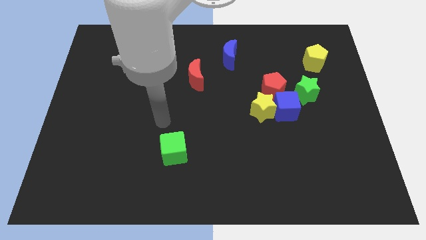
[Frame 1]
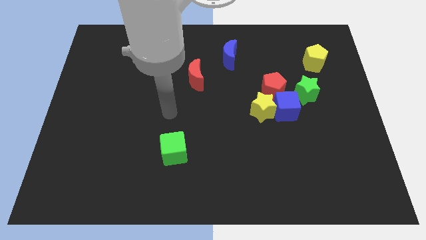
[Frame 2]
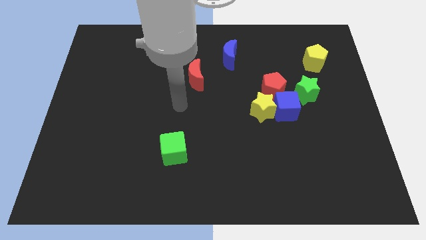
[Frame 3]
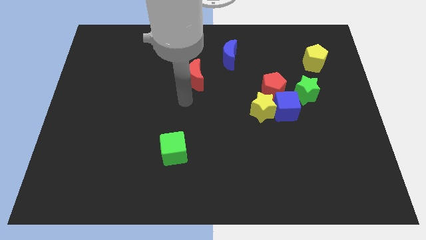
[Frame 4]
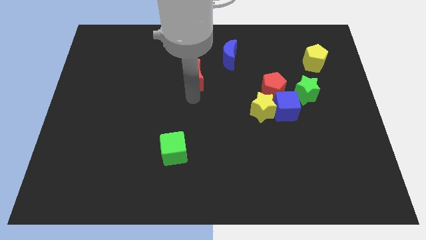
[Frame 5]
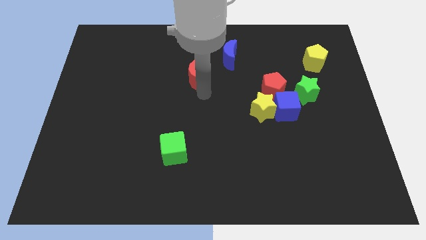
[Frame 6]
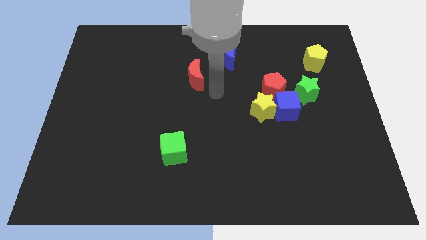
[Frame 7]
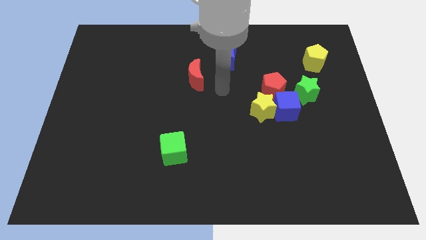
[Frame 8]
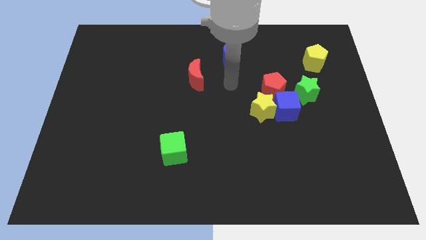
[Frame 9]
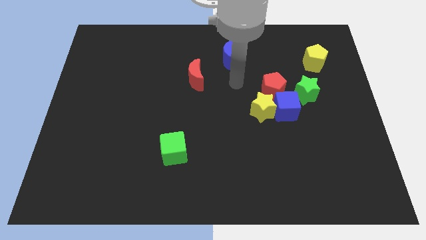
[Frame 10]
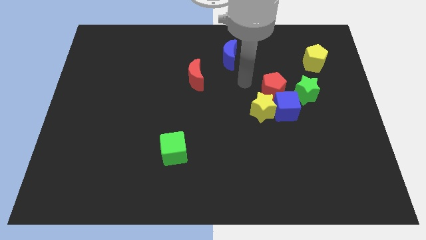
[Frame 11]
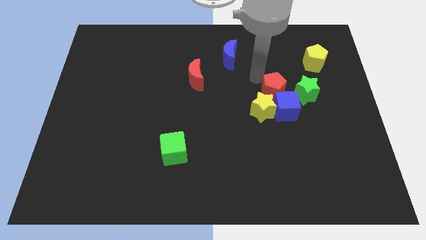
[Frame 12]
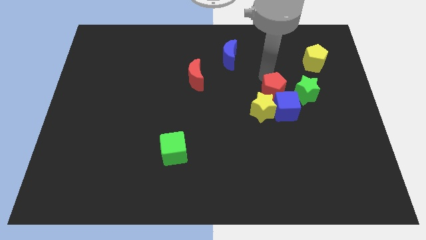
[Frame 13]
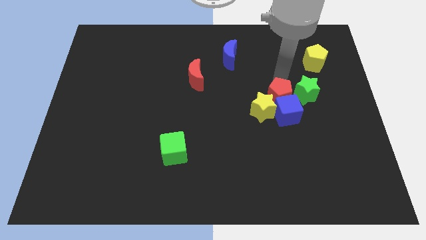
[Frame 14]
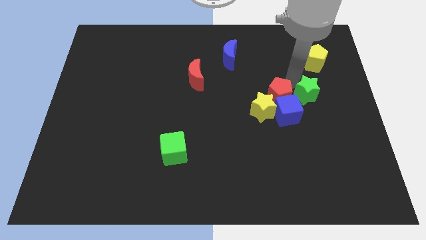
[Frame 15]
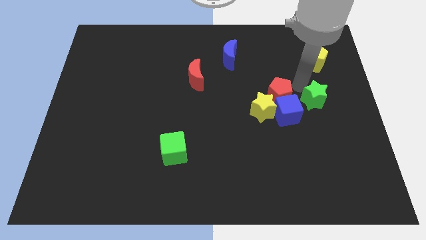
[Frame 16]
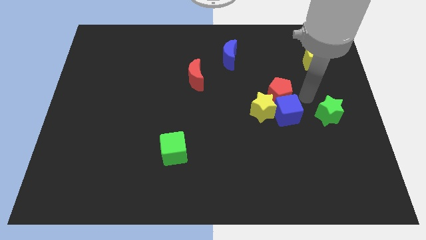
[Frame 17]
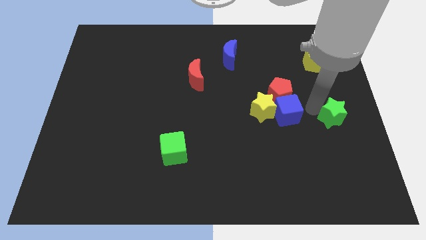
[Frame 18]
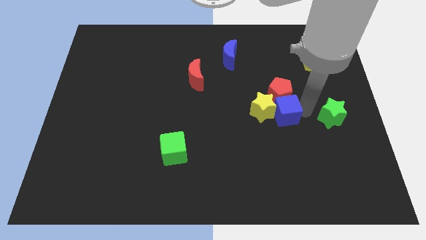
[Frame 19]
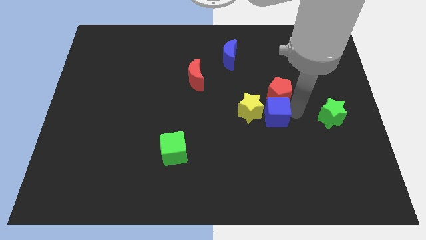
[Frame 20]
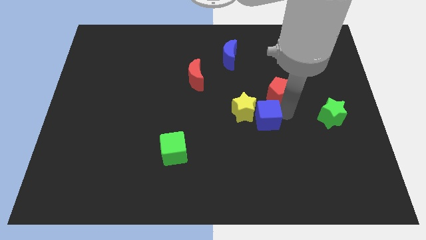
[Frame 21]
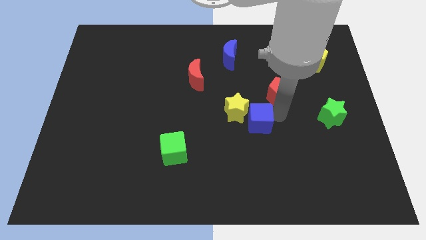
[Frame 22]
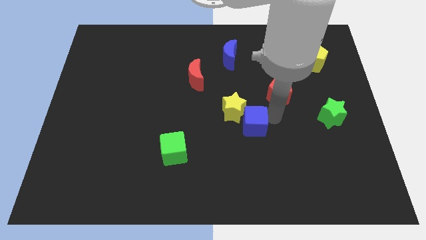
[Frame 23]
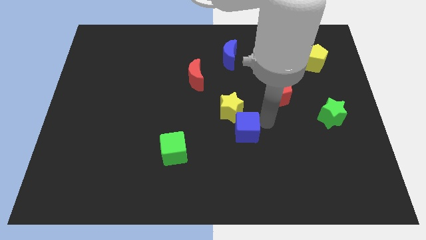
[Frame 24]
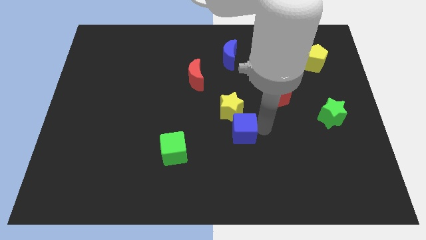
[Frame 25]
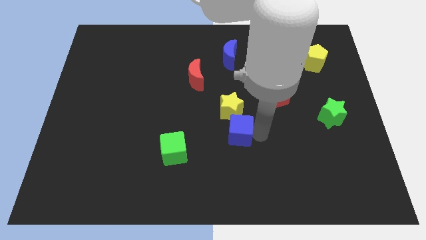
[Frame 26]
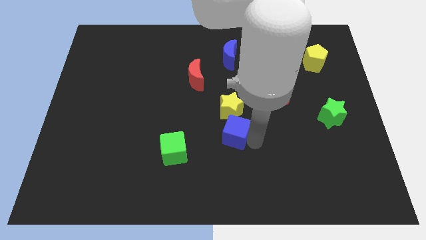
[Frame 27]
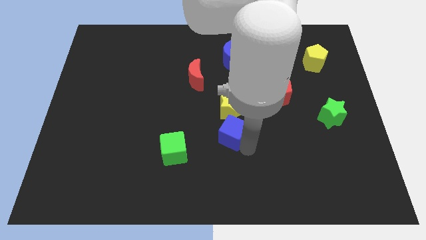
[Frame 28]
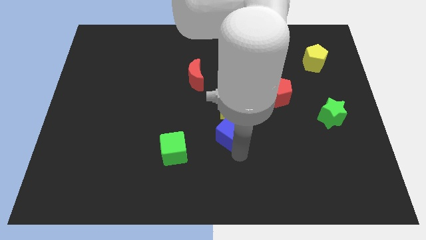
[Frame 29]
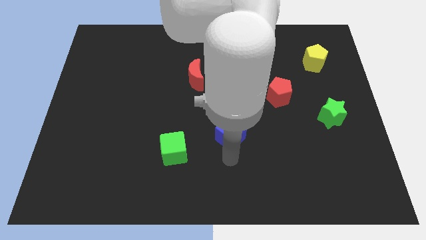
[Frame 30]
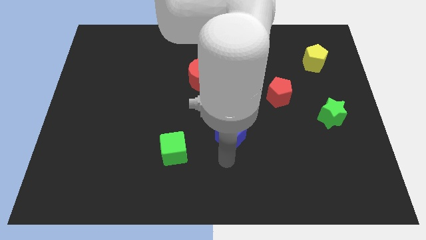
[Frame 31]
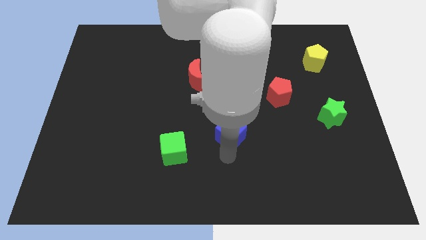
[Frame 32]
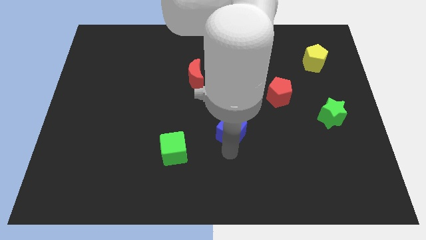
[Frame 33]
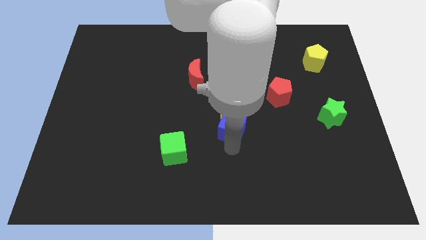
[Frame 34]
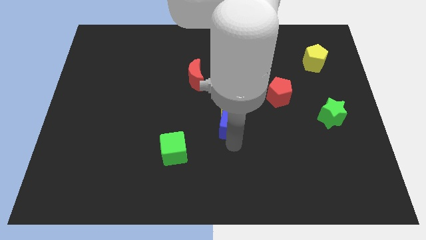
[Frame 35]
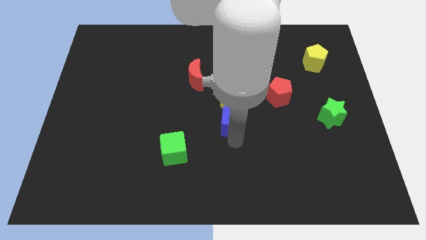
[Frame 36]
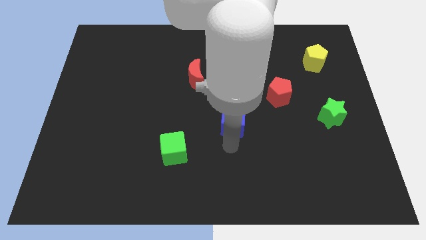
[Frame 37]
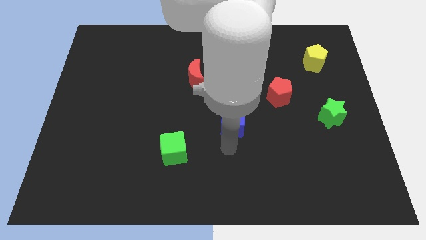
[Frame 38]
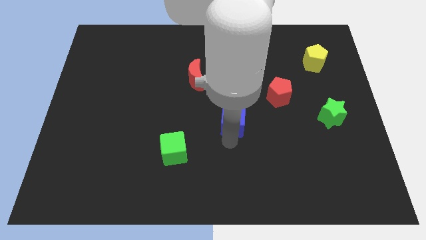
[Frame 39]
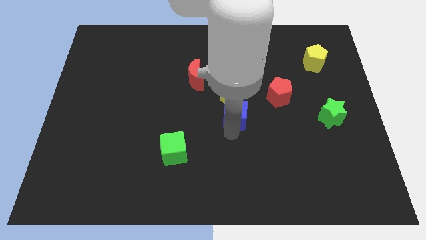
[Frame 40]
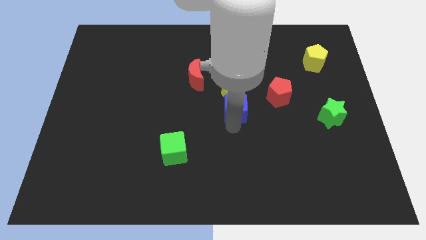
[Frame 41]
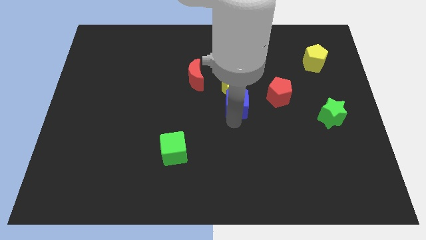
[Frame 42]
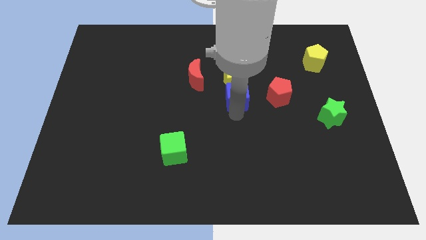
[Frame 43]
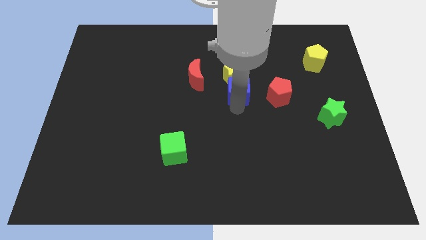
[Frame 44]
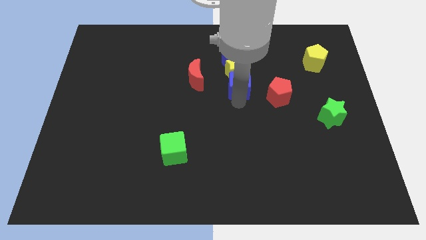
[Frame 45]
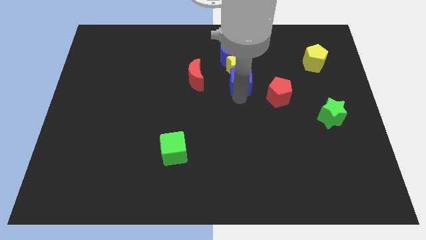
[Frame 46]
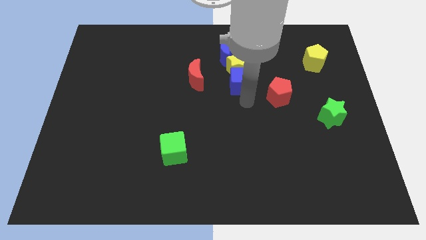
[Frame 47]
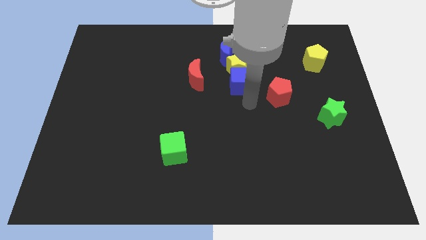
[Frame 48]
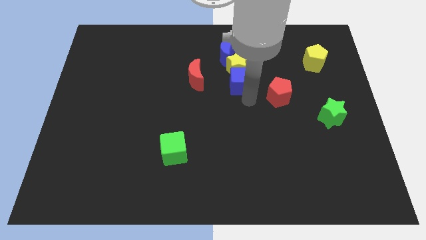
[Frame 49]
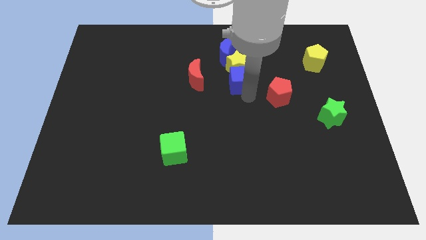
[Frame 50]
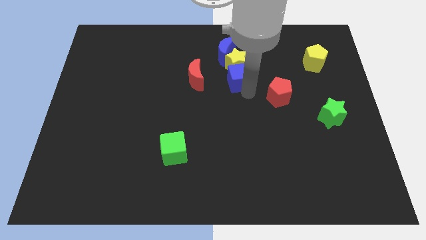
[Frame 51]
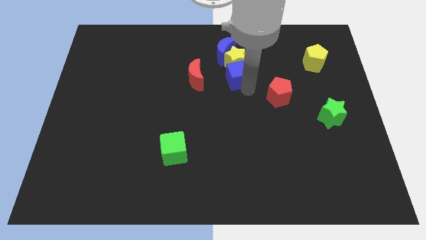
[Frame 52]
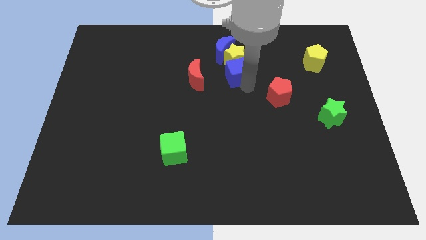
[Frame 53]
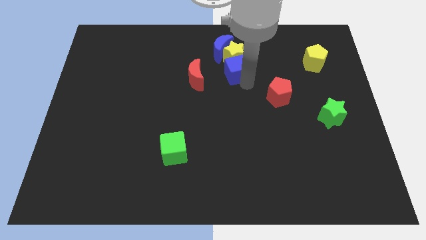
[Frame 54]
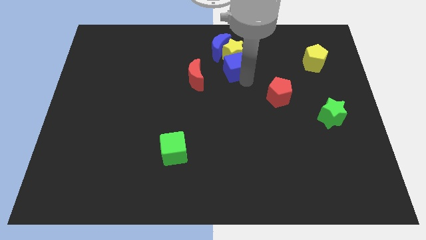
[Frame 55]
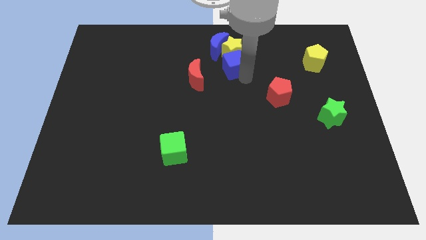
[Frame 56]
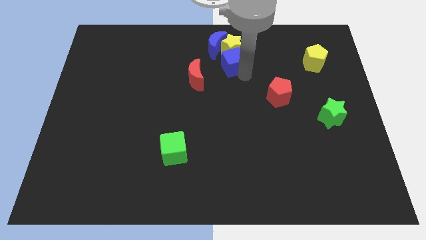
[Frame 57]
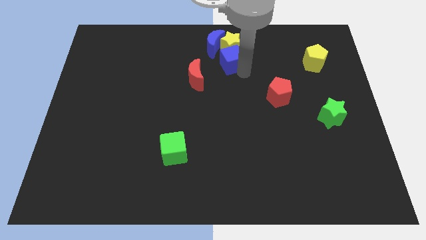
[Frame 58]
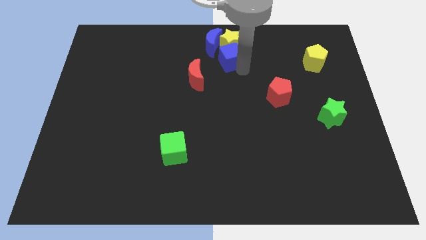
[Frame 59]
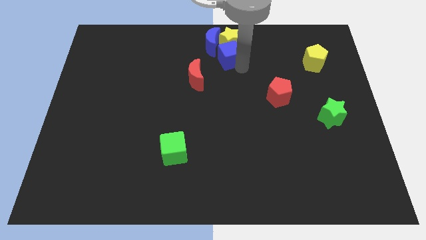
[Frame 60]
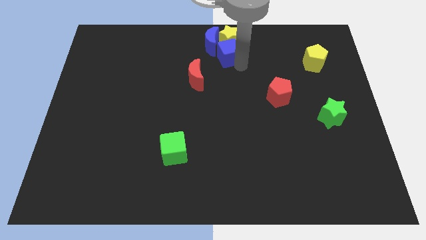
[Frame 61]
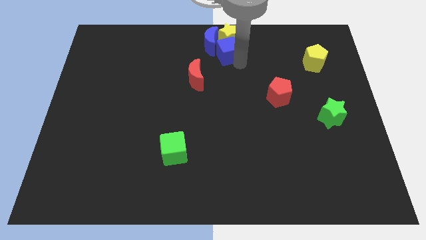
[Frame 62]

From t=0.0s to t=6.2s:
move the blue cube to the blue moon

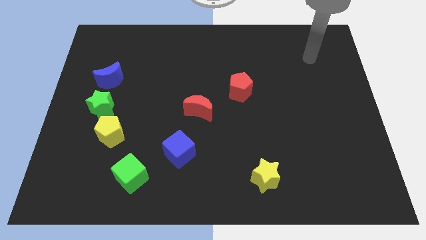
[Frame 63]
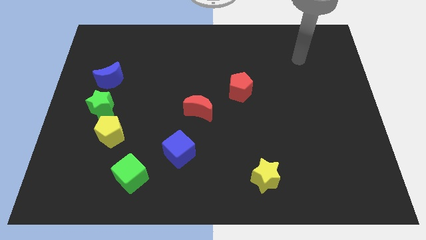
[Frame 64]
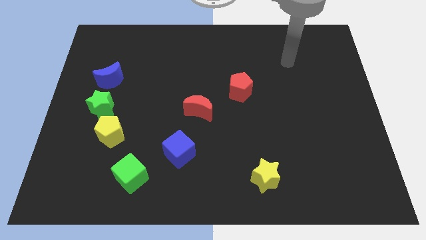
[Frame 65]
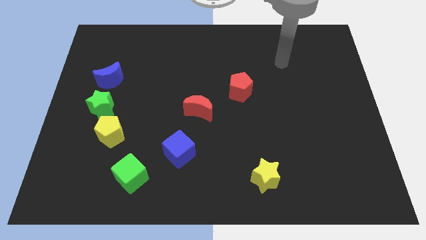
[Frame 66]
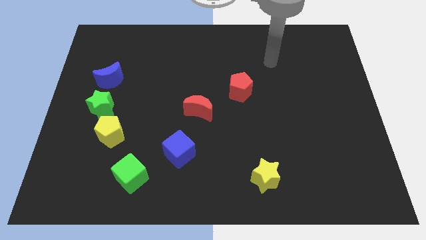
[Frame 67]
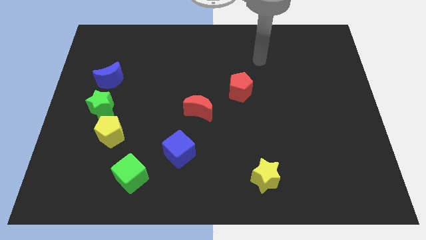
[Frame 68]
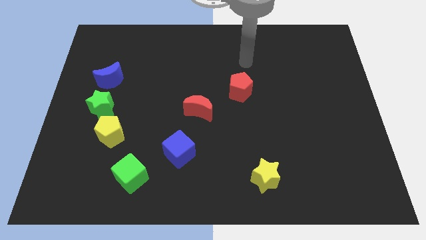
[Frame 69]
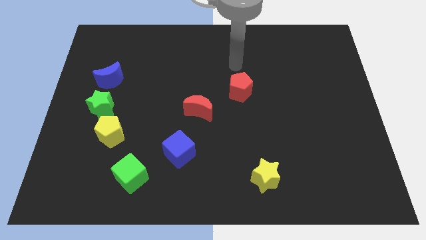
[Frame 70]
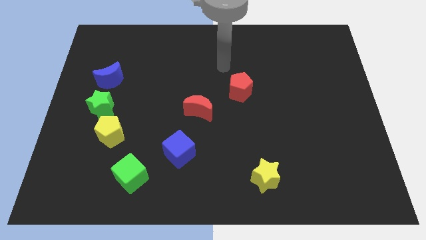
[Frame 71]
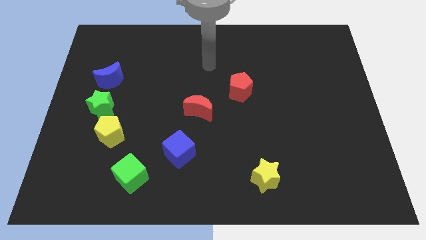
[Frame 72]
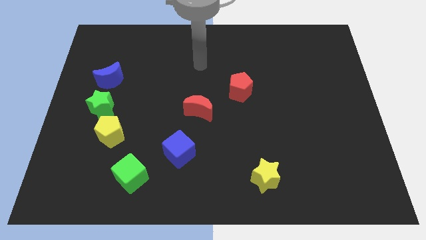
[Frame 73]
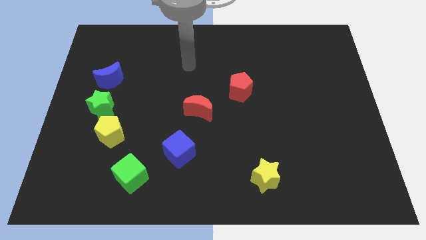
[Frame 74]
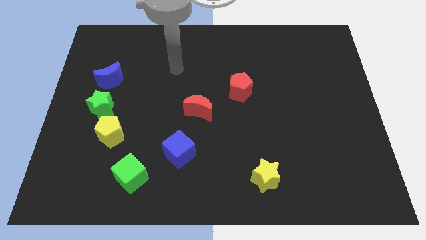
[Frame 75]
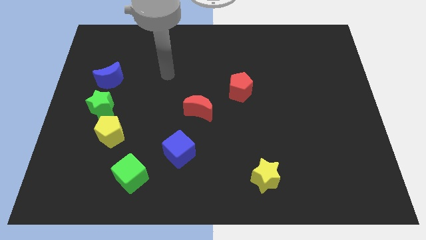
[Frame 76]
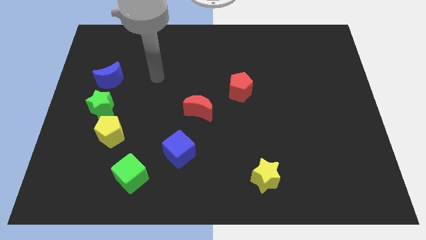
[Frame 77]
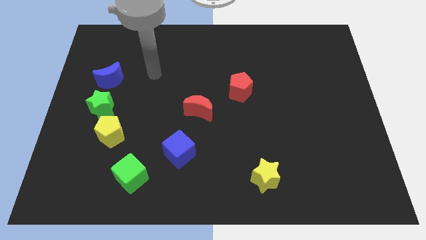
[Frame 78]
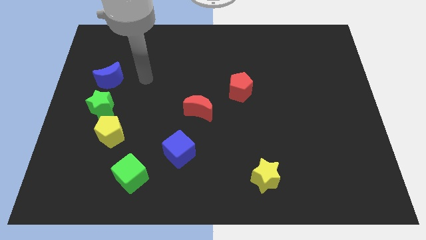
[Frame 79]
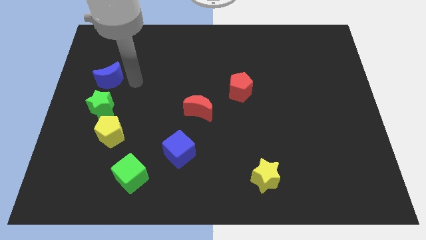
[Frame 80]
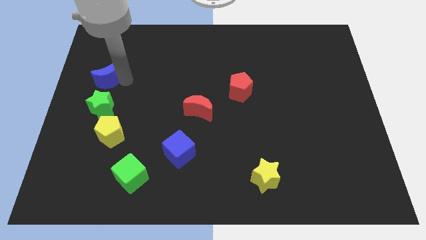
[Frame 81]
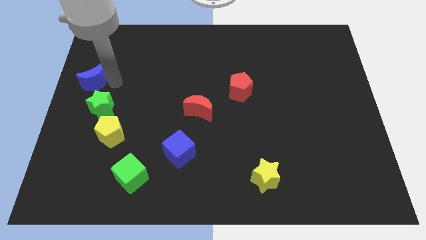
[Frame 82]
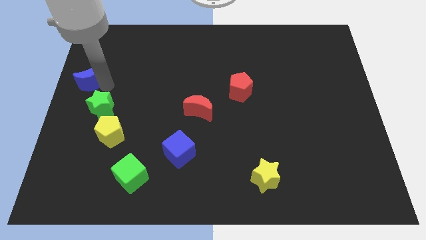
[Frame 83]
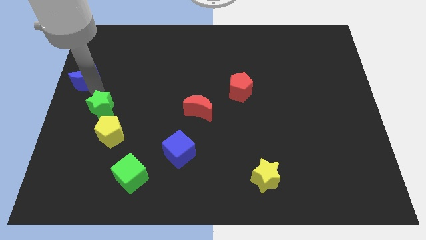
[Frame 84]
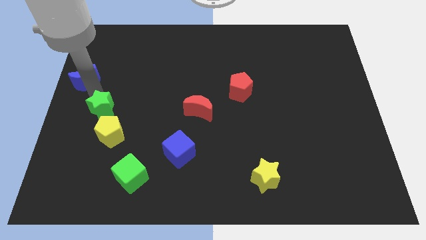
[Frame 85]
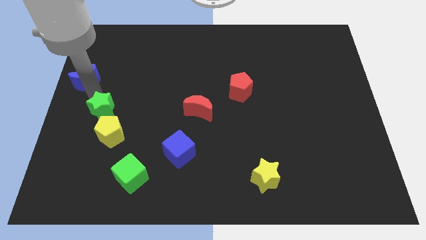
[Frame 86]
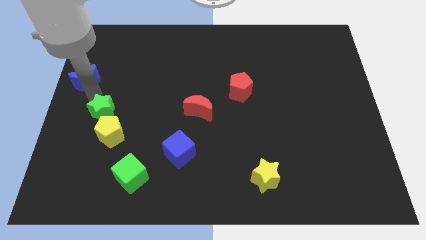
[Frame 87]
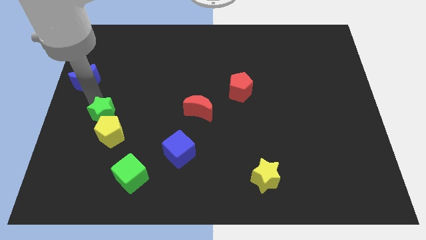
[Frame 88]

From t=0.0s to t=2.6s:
move the green star next to the yellow pentagon
